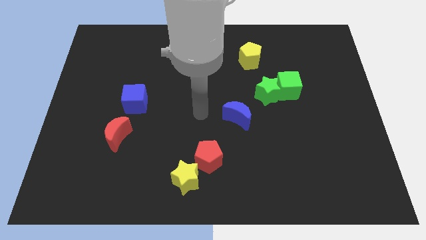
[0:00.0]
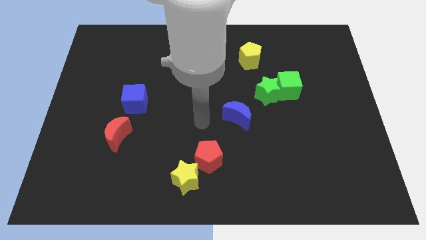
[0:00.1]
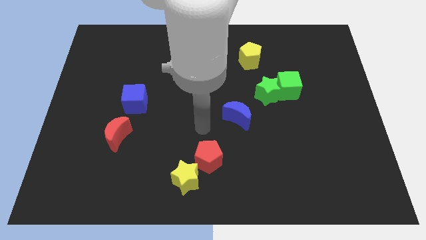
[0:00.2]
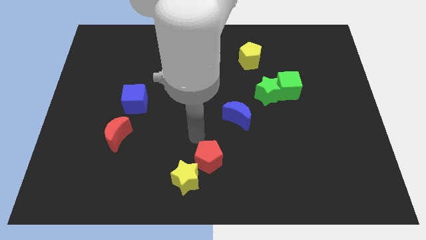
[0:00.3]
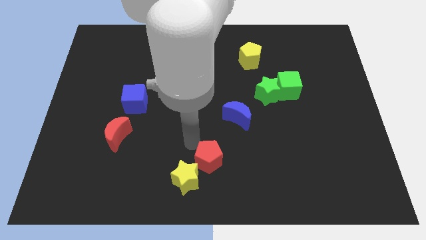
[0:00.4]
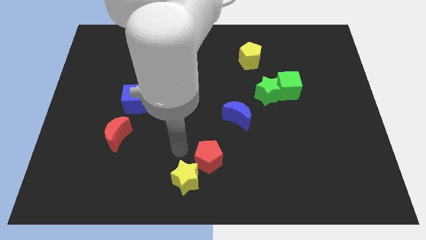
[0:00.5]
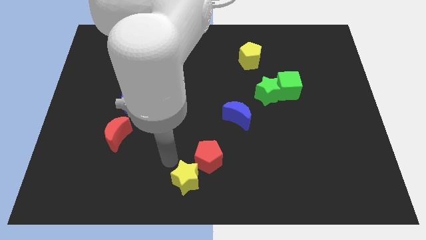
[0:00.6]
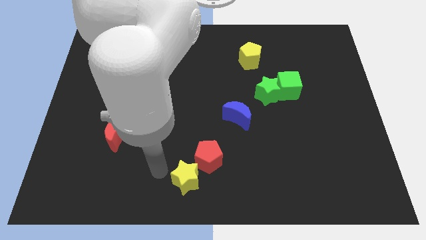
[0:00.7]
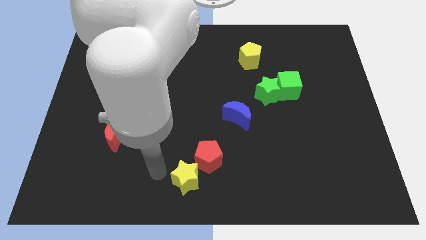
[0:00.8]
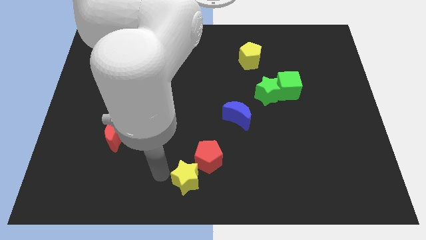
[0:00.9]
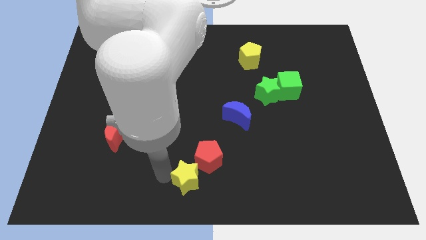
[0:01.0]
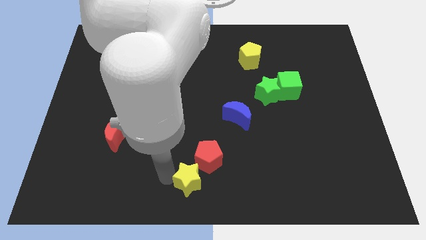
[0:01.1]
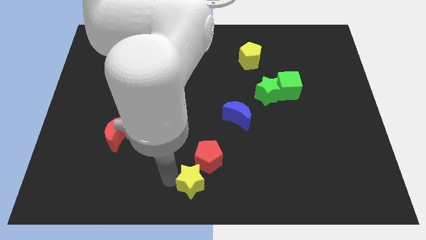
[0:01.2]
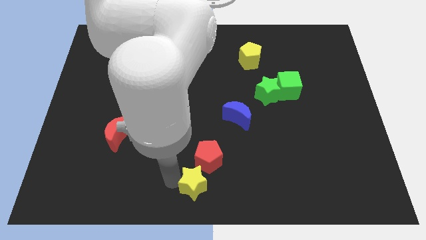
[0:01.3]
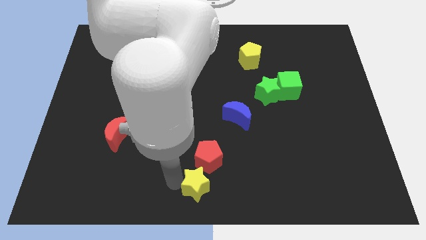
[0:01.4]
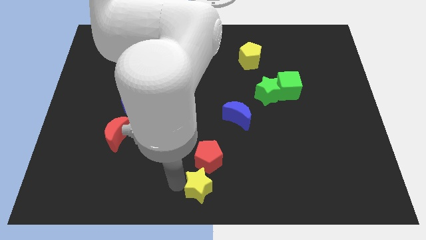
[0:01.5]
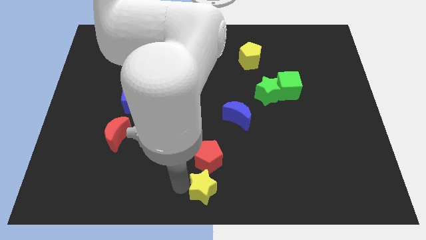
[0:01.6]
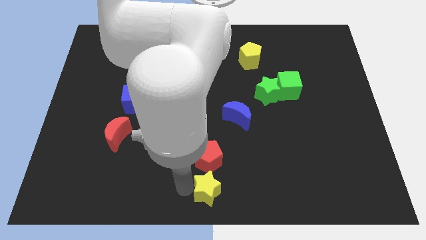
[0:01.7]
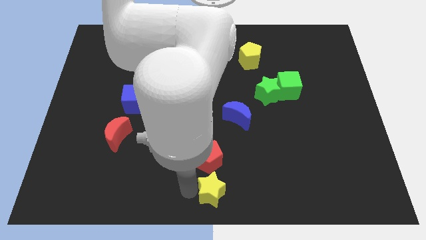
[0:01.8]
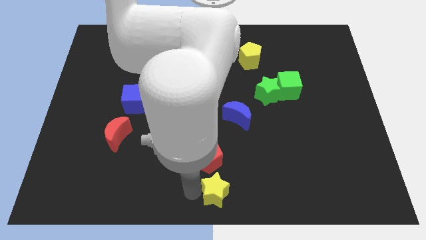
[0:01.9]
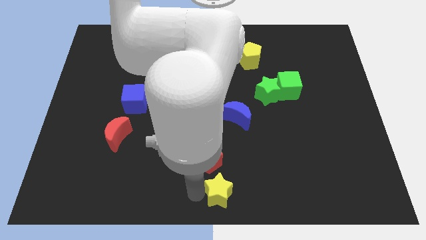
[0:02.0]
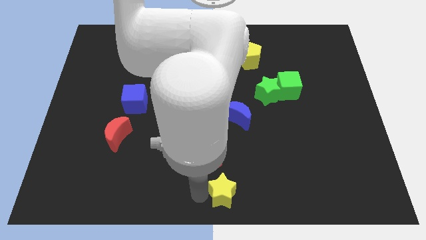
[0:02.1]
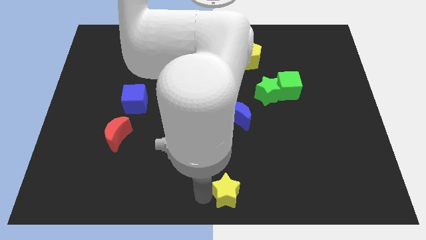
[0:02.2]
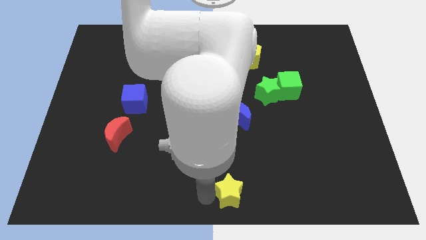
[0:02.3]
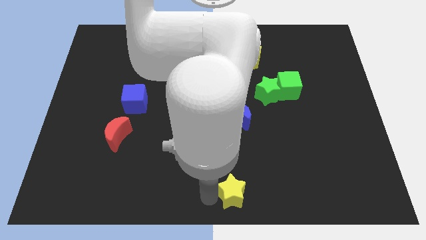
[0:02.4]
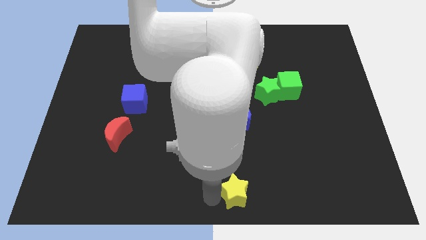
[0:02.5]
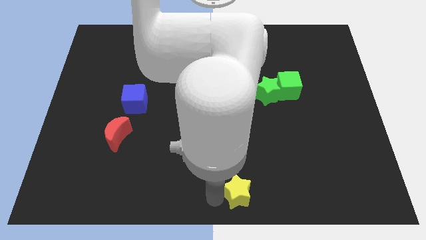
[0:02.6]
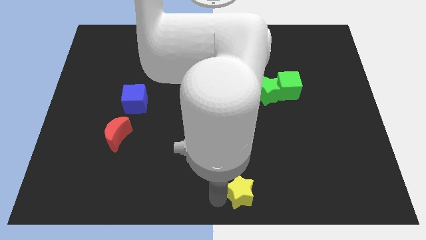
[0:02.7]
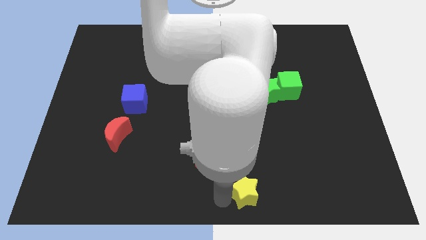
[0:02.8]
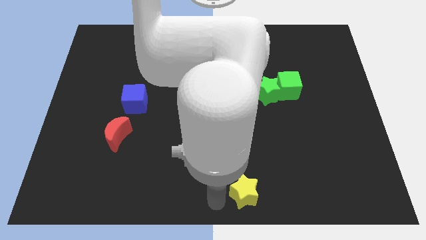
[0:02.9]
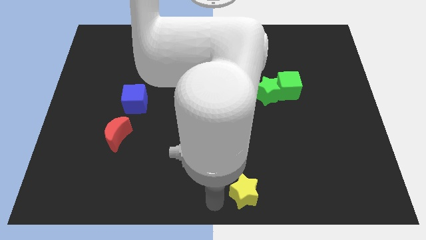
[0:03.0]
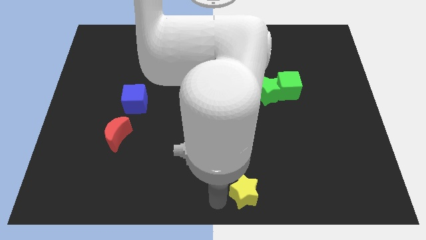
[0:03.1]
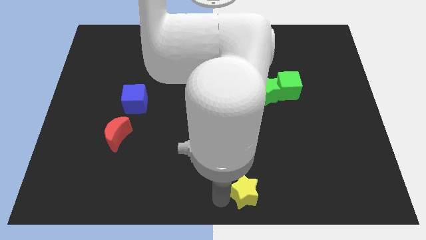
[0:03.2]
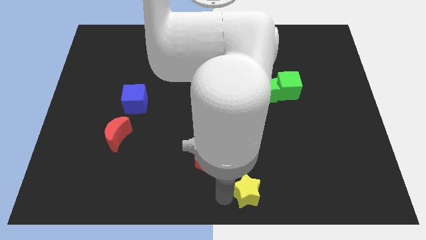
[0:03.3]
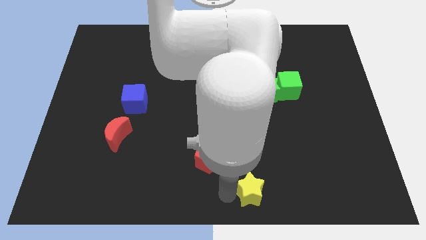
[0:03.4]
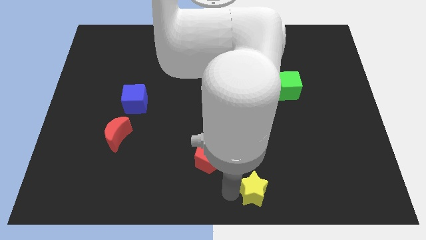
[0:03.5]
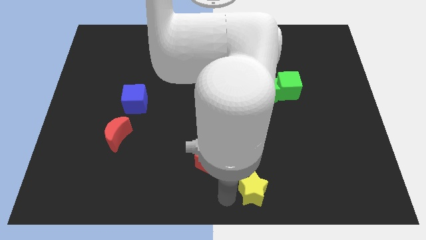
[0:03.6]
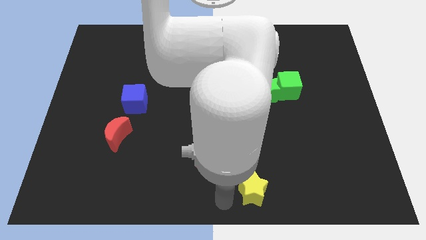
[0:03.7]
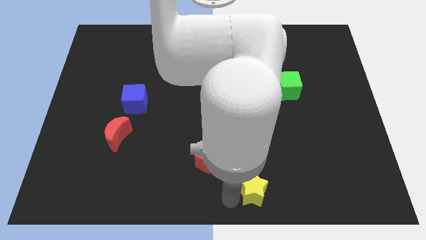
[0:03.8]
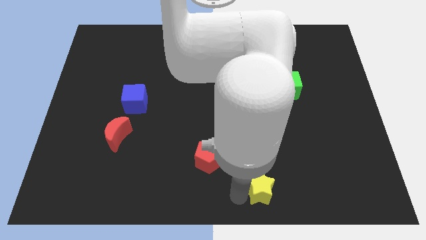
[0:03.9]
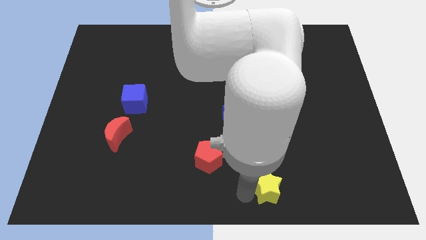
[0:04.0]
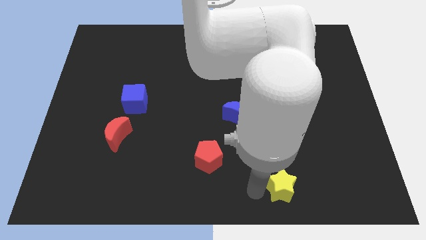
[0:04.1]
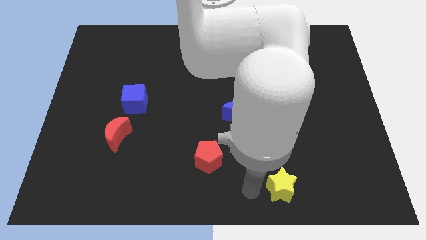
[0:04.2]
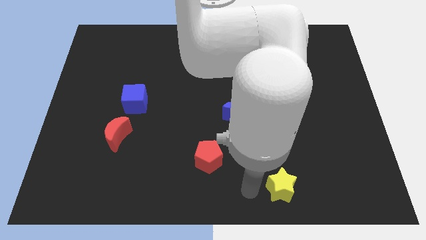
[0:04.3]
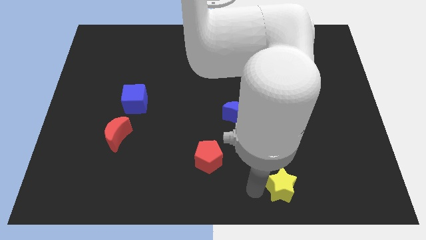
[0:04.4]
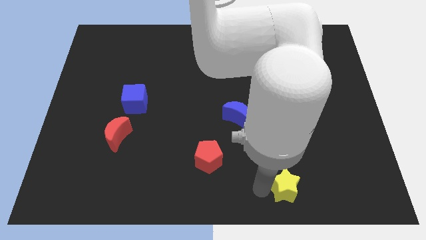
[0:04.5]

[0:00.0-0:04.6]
slide the yellow star right

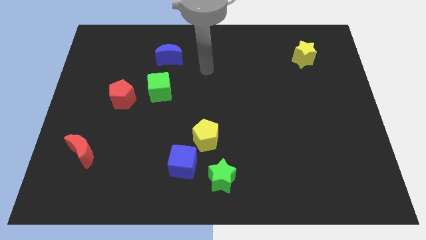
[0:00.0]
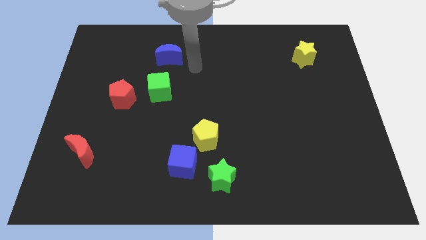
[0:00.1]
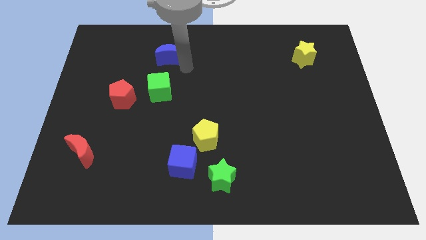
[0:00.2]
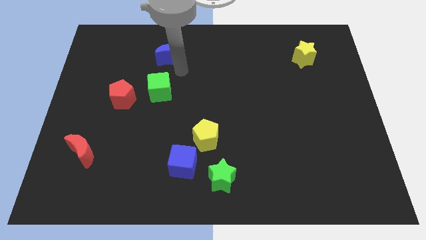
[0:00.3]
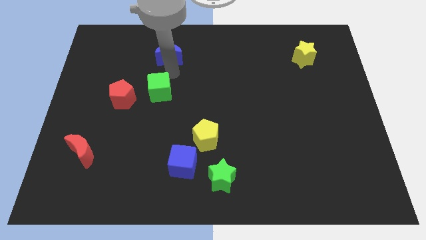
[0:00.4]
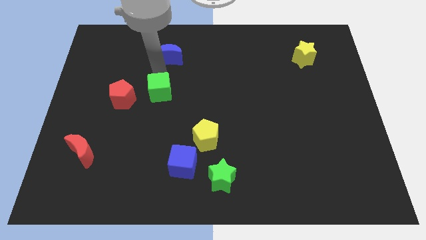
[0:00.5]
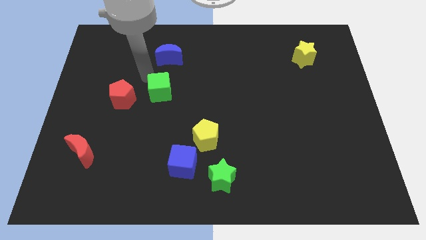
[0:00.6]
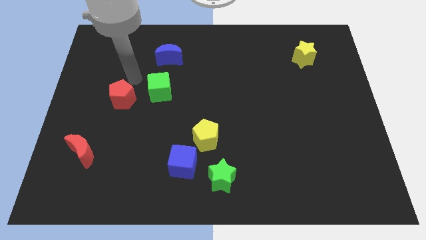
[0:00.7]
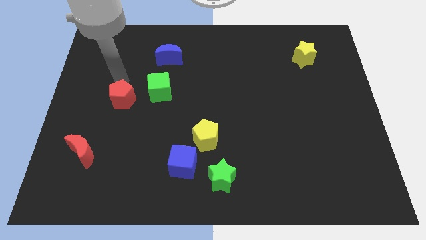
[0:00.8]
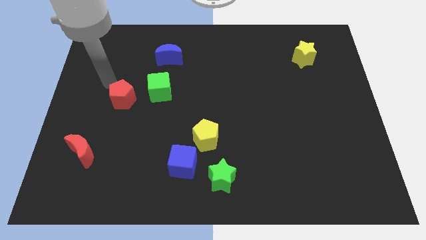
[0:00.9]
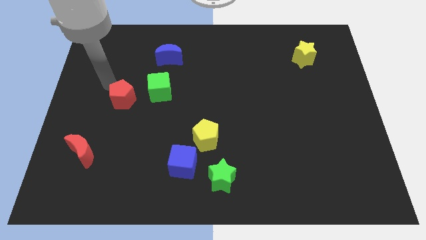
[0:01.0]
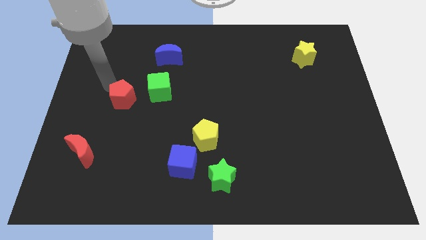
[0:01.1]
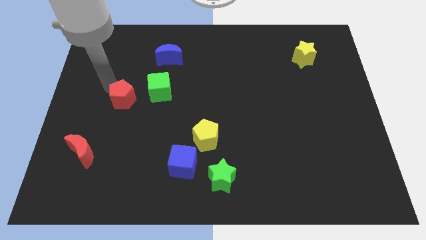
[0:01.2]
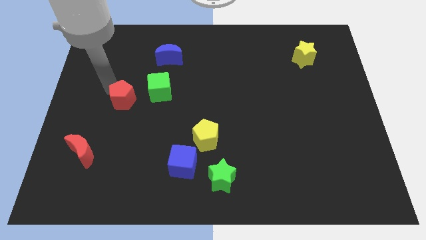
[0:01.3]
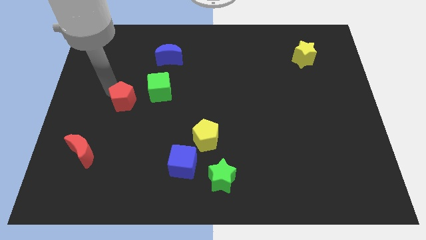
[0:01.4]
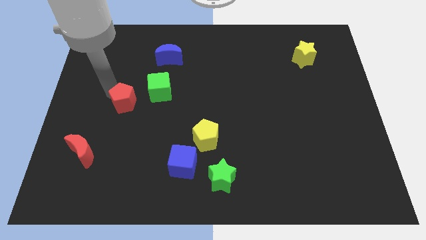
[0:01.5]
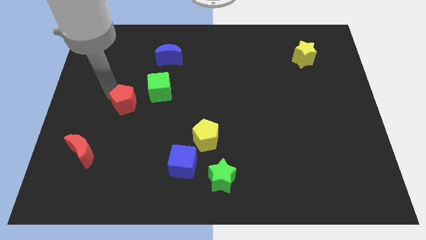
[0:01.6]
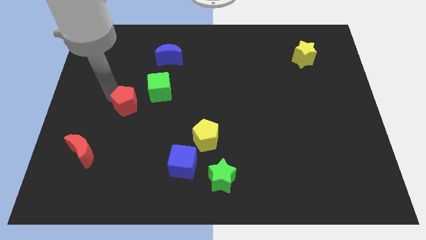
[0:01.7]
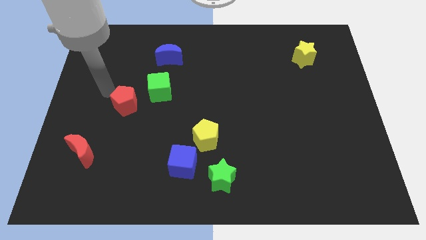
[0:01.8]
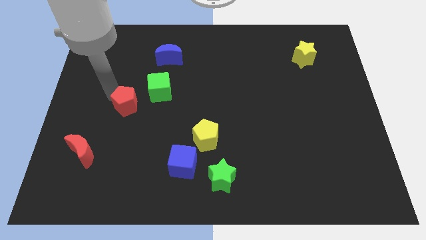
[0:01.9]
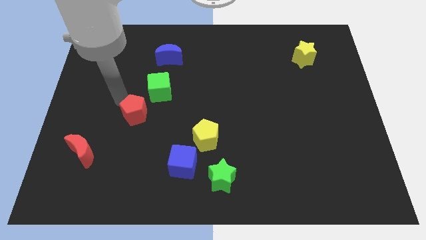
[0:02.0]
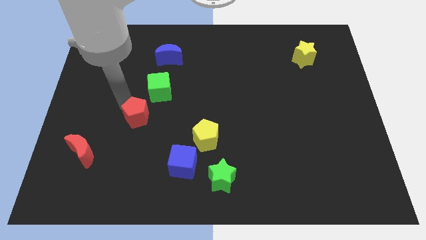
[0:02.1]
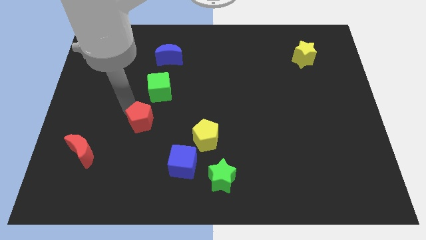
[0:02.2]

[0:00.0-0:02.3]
move the red pentagon down and to the right a little bit

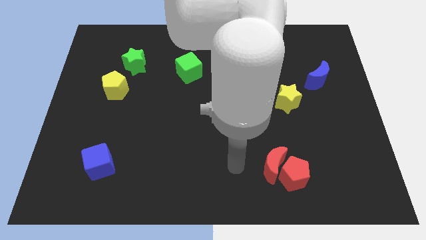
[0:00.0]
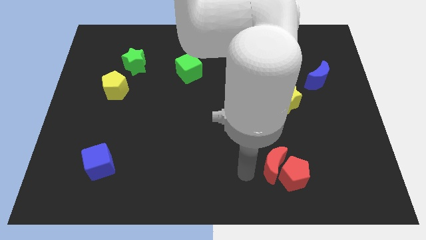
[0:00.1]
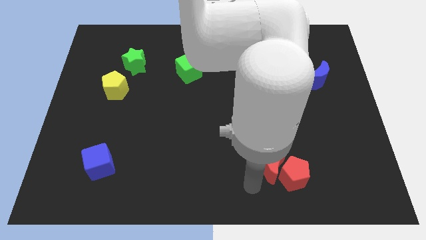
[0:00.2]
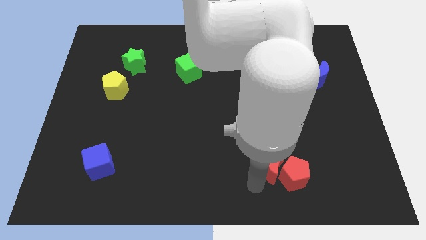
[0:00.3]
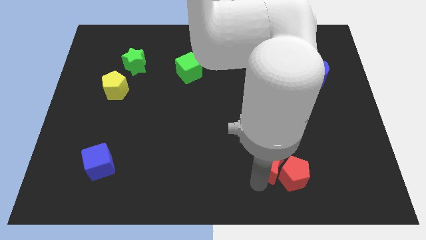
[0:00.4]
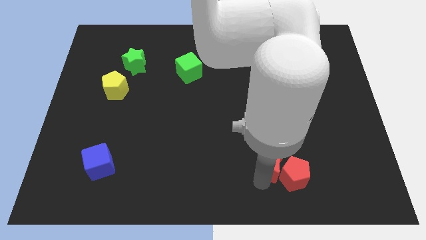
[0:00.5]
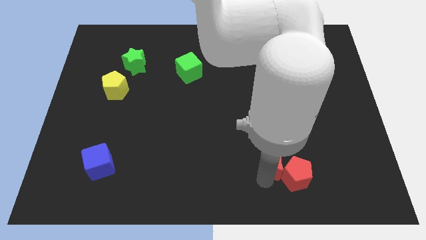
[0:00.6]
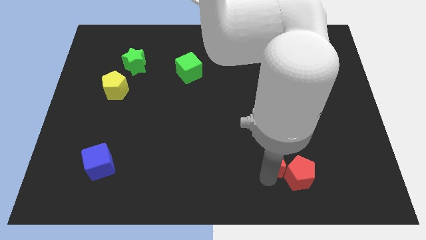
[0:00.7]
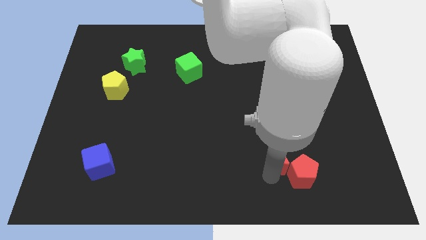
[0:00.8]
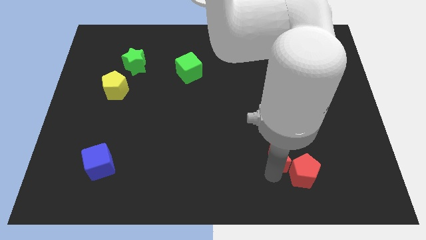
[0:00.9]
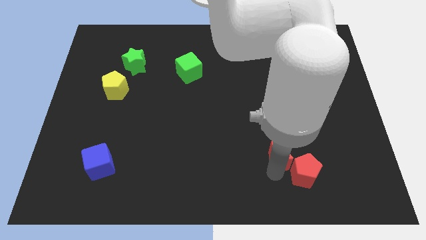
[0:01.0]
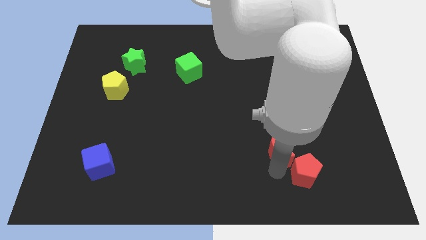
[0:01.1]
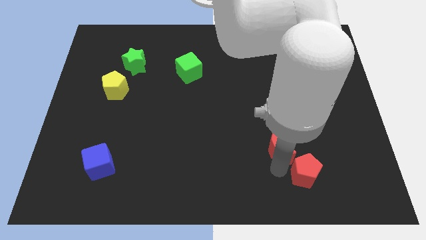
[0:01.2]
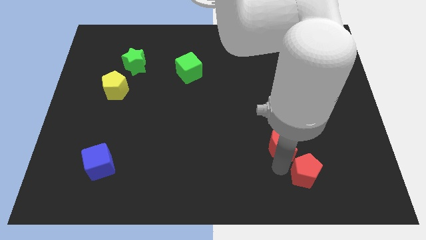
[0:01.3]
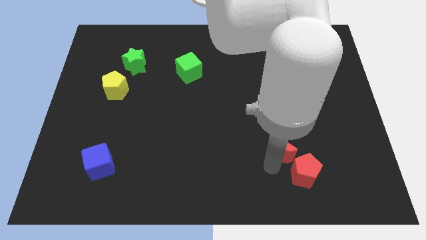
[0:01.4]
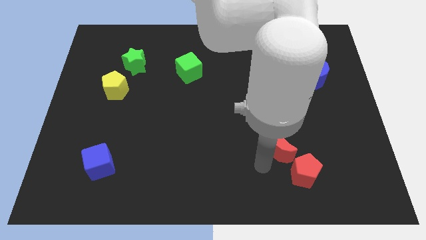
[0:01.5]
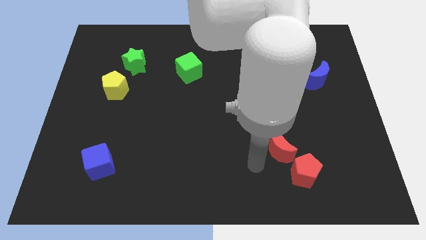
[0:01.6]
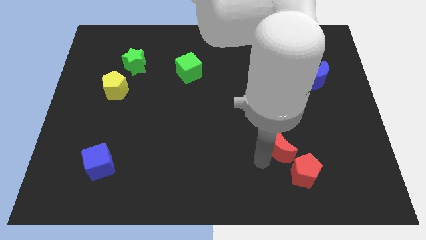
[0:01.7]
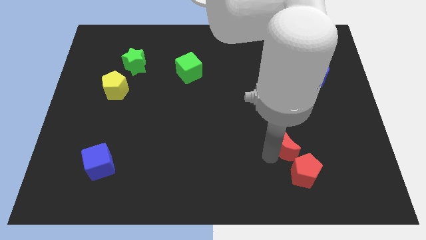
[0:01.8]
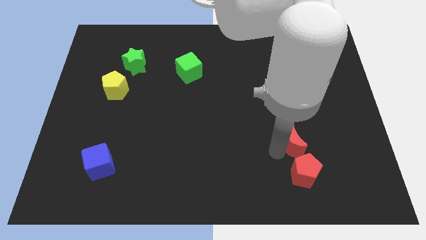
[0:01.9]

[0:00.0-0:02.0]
slightly slide the red moon diagonally up and right
